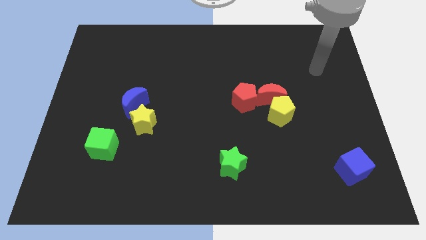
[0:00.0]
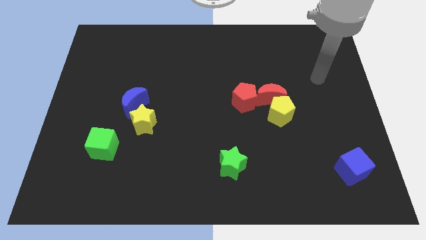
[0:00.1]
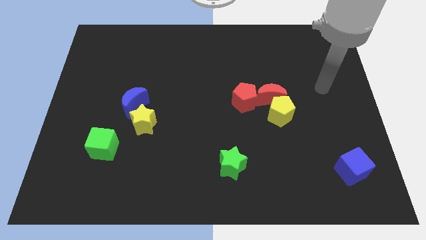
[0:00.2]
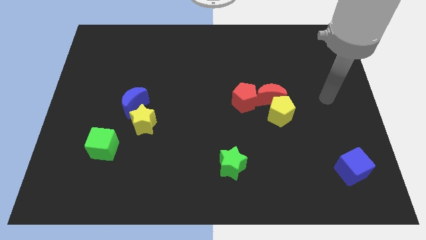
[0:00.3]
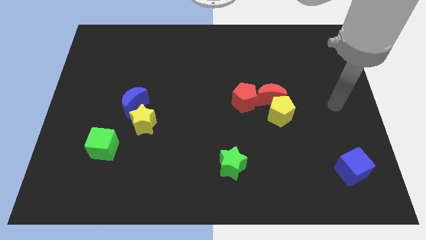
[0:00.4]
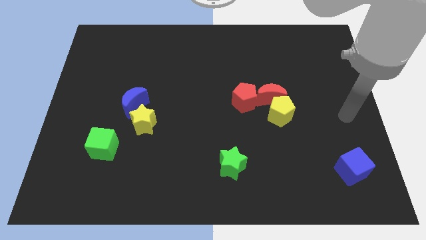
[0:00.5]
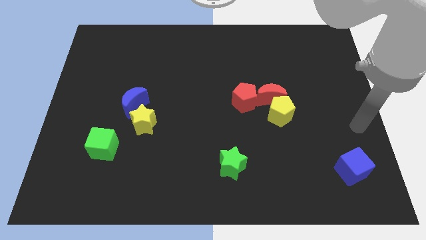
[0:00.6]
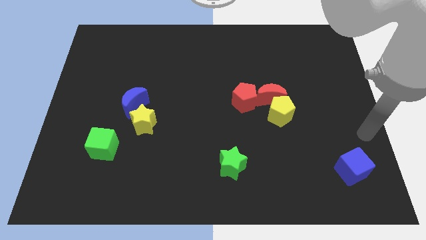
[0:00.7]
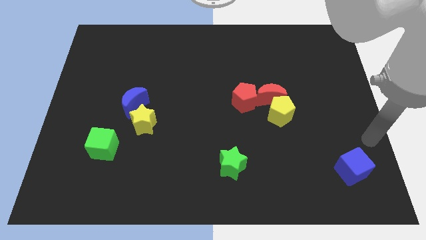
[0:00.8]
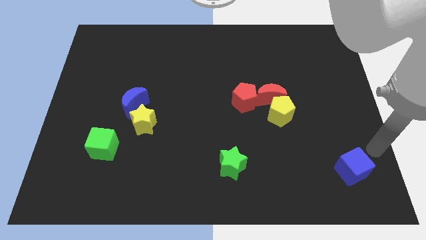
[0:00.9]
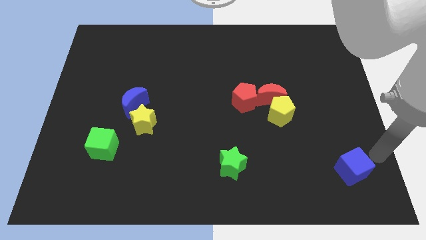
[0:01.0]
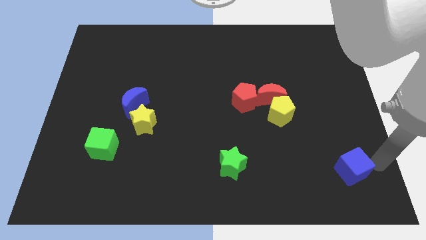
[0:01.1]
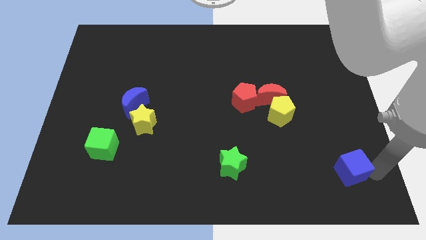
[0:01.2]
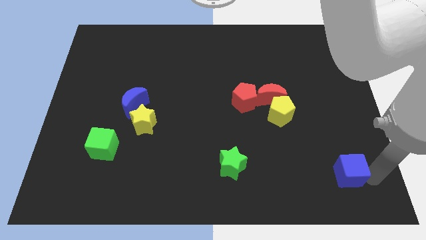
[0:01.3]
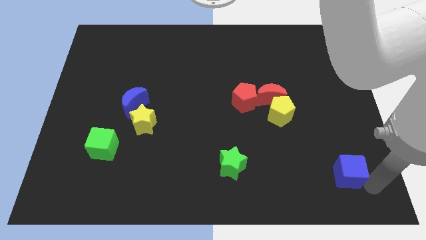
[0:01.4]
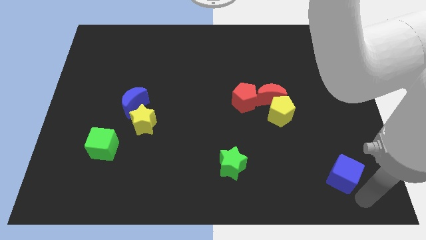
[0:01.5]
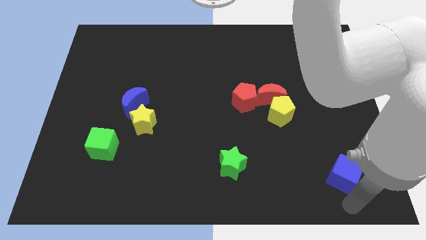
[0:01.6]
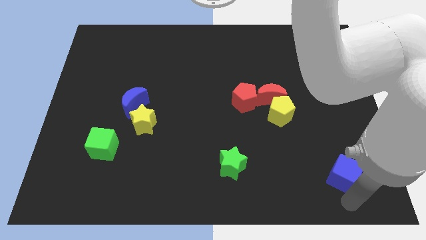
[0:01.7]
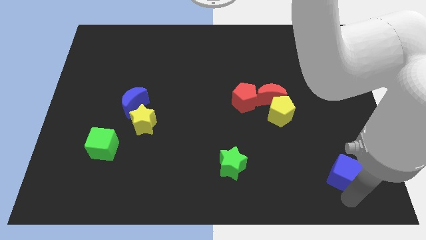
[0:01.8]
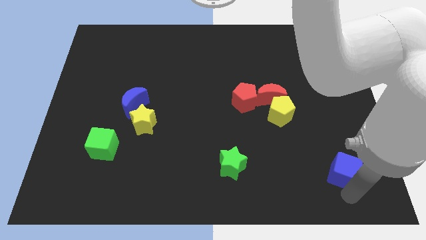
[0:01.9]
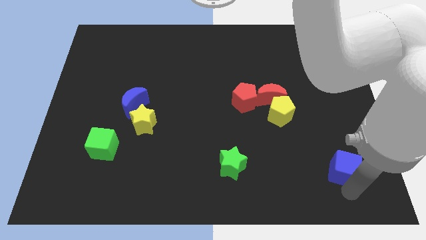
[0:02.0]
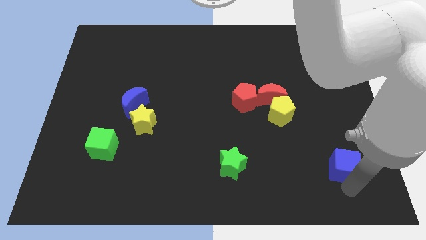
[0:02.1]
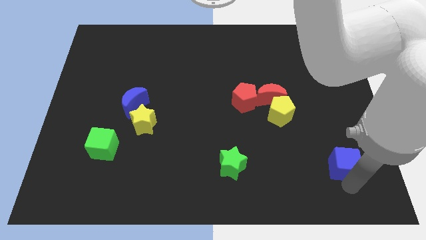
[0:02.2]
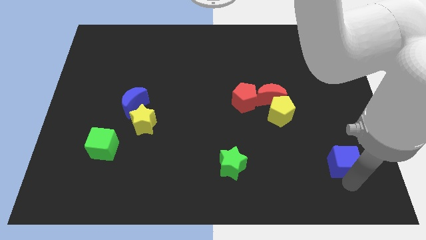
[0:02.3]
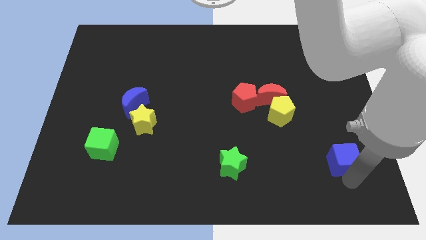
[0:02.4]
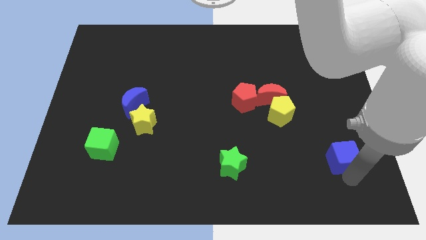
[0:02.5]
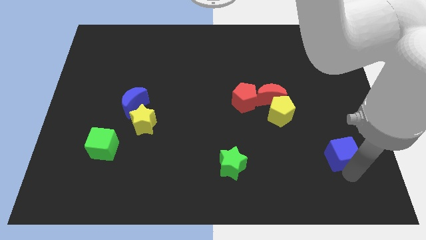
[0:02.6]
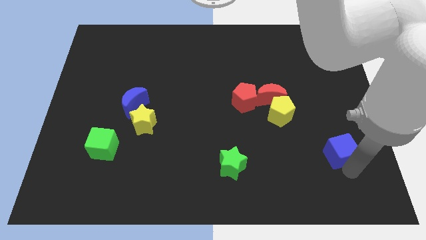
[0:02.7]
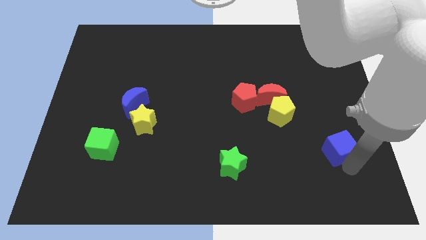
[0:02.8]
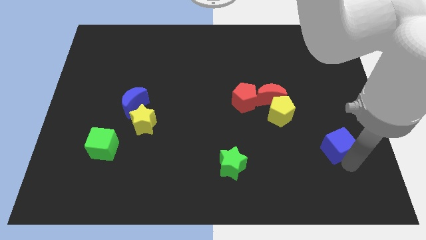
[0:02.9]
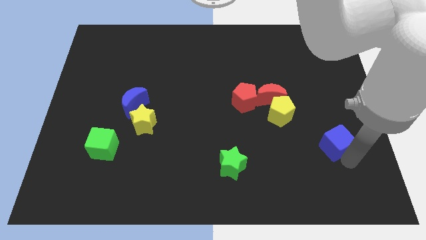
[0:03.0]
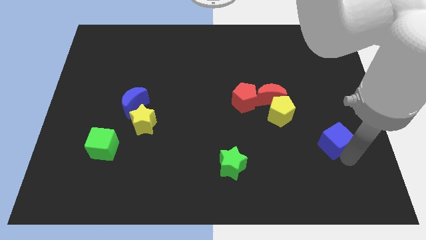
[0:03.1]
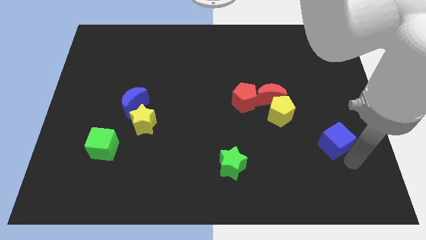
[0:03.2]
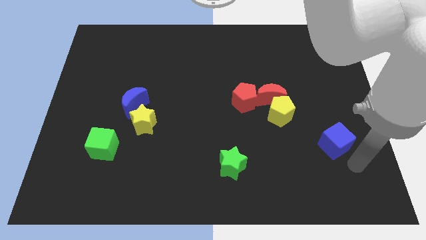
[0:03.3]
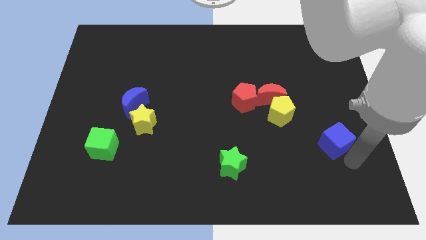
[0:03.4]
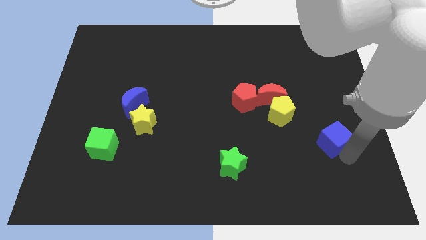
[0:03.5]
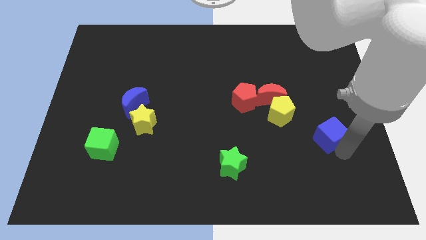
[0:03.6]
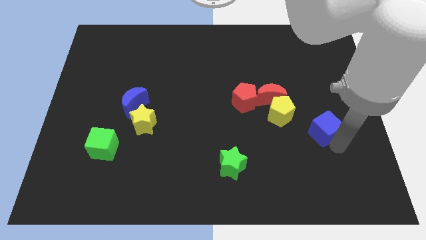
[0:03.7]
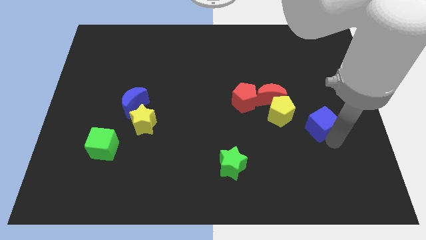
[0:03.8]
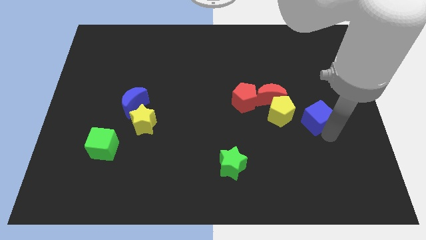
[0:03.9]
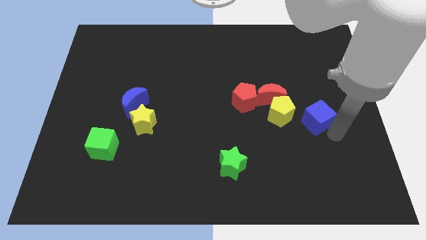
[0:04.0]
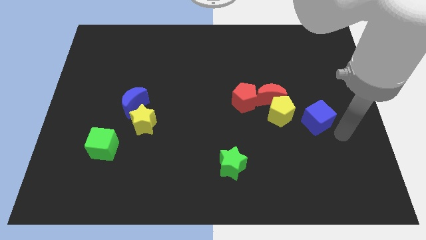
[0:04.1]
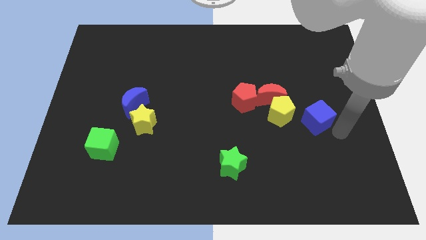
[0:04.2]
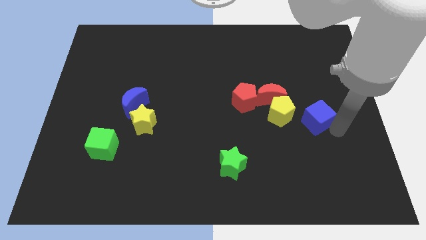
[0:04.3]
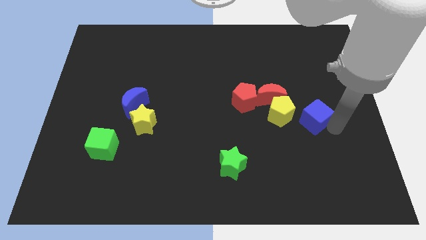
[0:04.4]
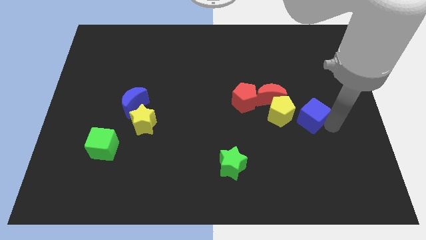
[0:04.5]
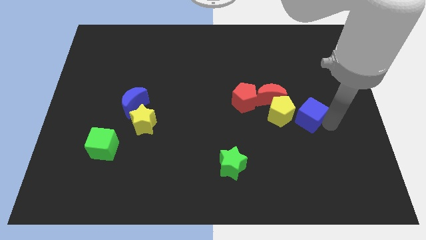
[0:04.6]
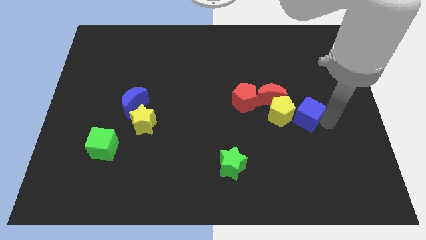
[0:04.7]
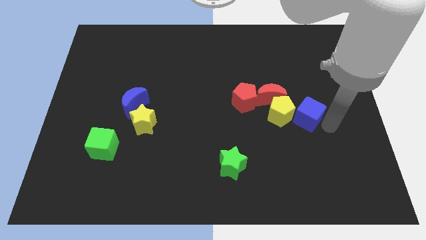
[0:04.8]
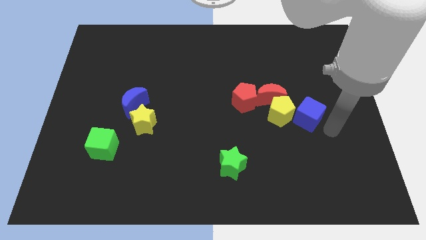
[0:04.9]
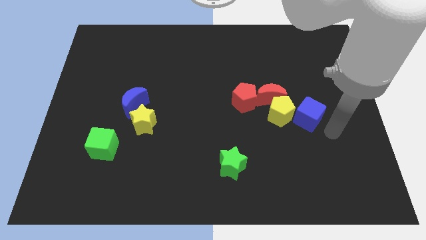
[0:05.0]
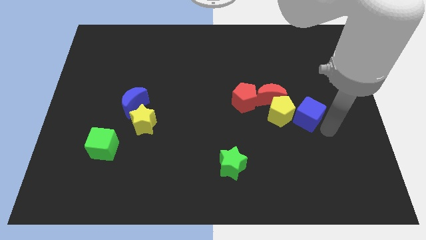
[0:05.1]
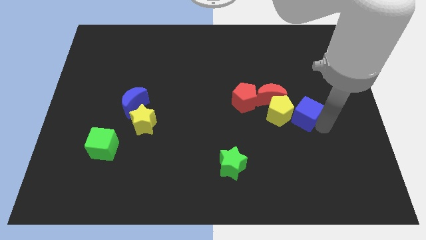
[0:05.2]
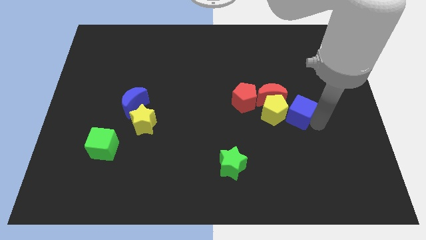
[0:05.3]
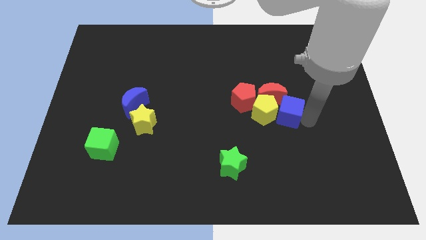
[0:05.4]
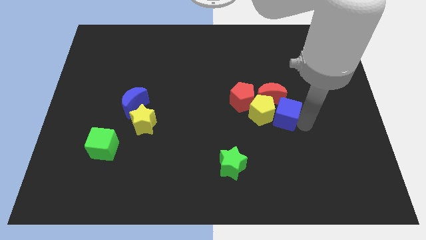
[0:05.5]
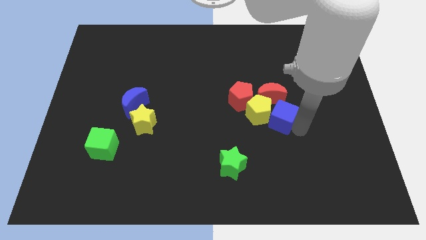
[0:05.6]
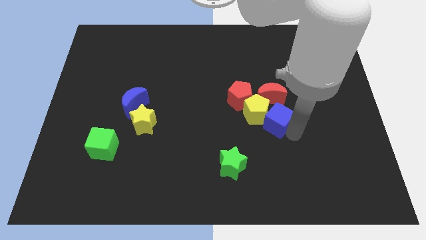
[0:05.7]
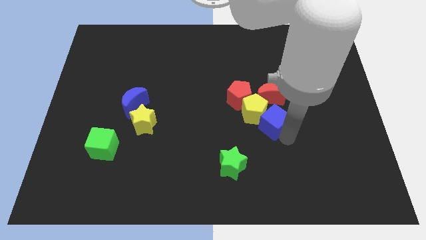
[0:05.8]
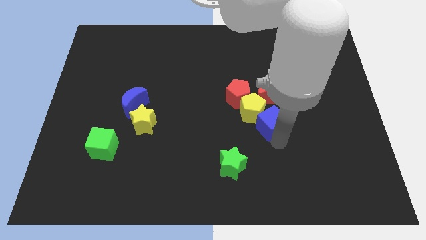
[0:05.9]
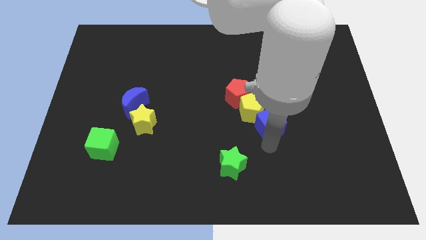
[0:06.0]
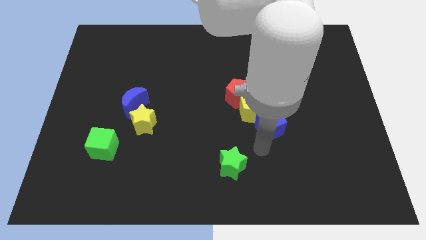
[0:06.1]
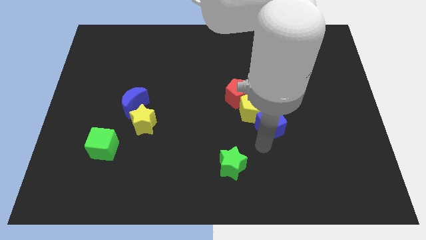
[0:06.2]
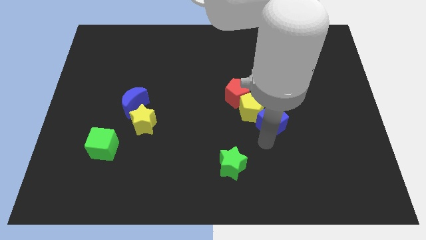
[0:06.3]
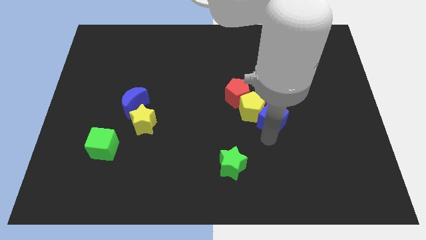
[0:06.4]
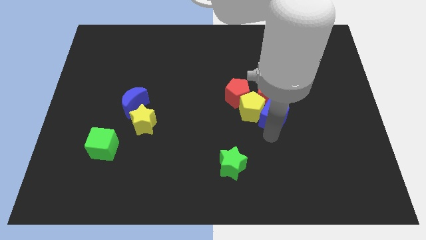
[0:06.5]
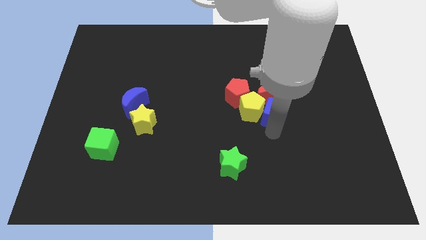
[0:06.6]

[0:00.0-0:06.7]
slide the blue cube to the red moon
